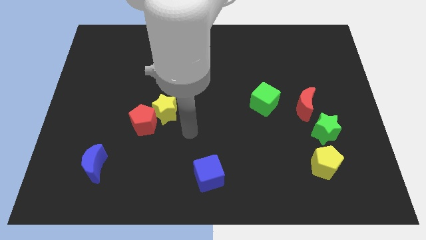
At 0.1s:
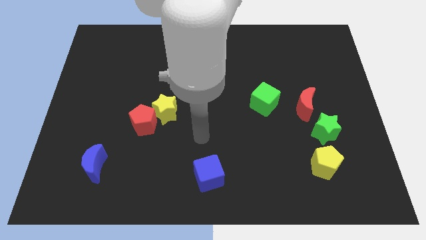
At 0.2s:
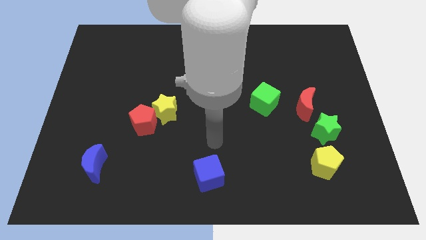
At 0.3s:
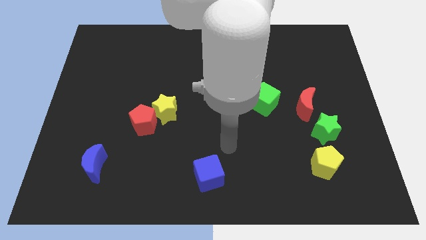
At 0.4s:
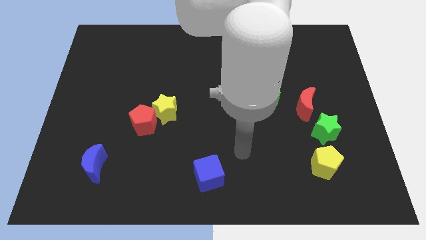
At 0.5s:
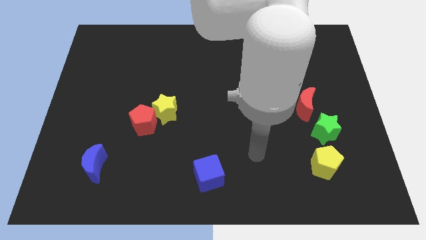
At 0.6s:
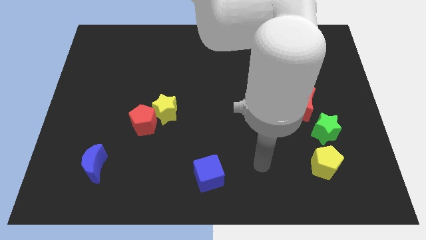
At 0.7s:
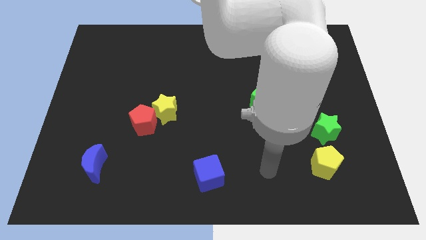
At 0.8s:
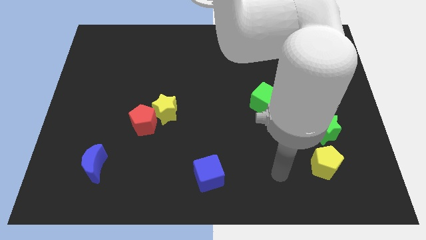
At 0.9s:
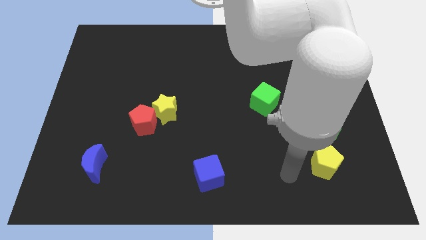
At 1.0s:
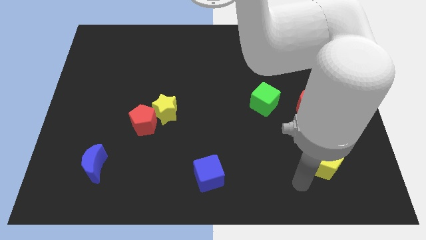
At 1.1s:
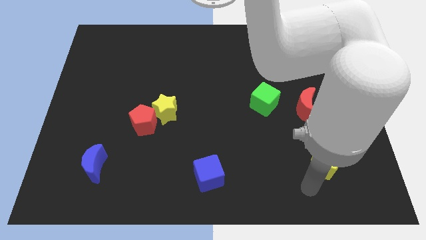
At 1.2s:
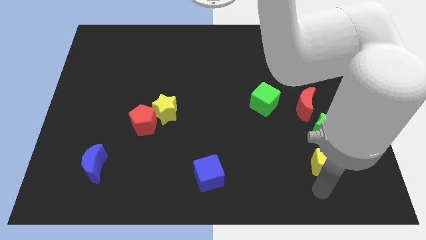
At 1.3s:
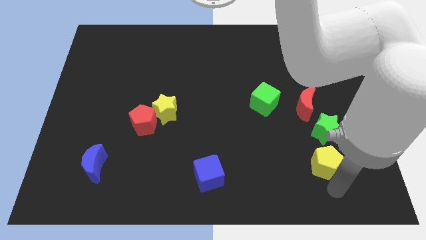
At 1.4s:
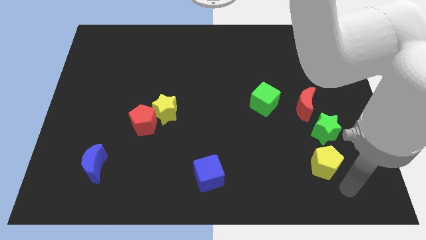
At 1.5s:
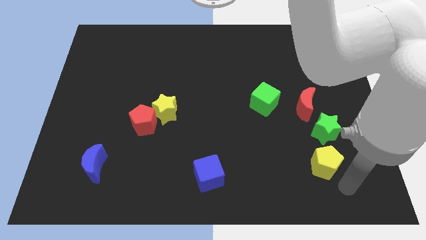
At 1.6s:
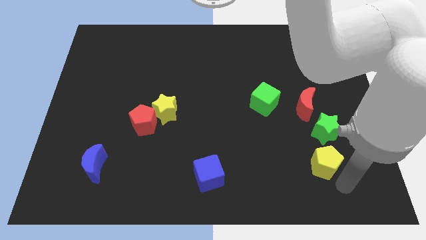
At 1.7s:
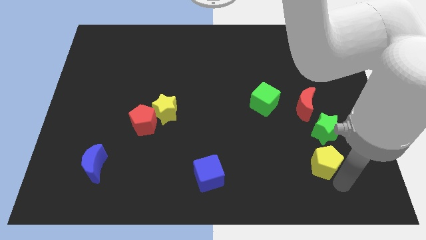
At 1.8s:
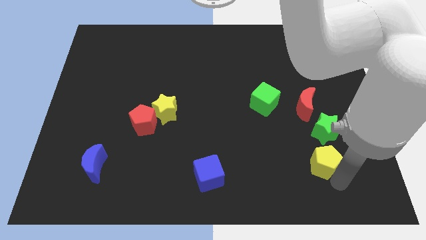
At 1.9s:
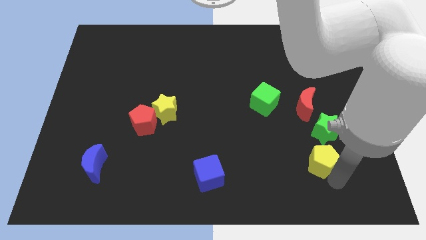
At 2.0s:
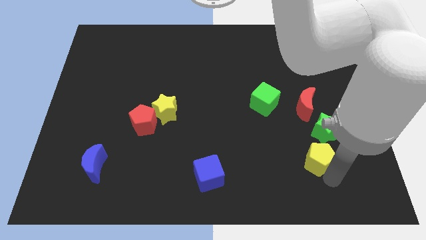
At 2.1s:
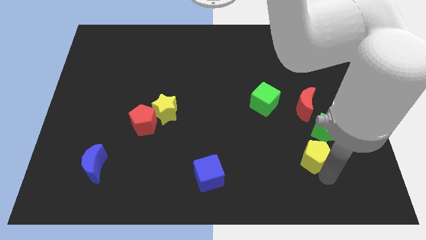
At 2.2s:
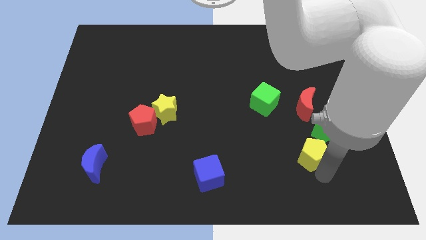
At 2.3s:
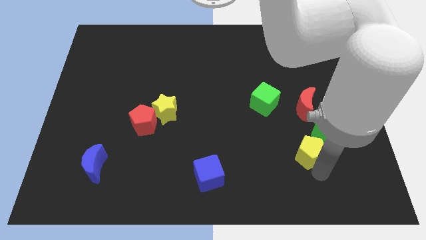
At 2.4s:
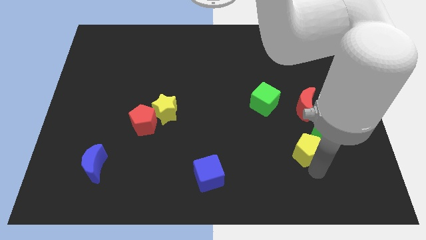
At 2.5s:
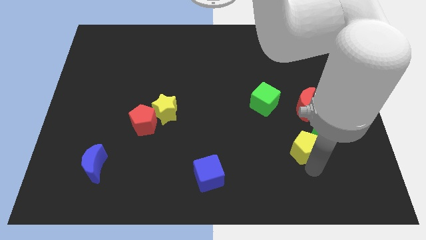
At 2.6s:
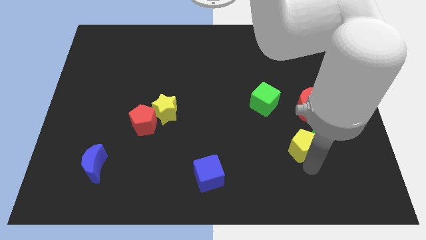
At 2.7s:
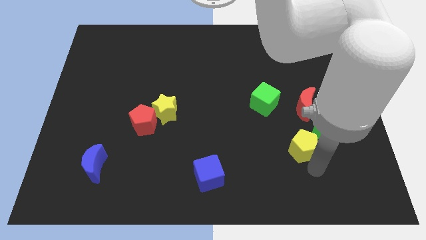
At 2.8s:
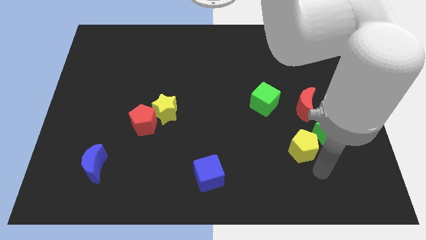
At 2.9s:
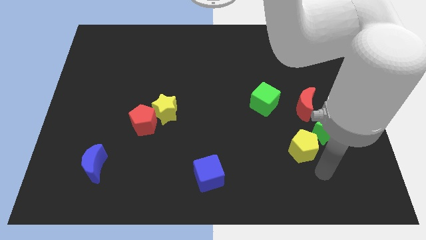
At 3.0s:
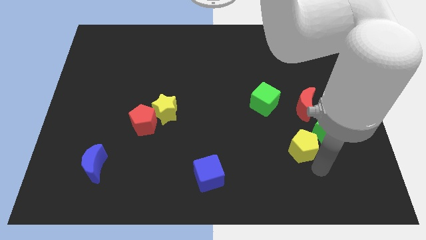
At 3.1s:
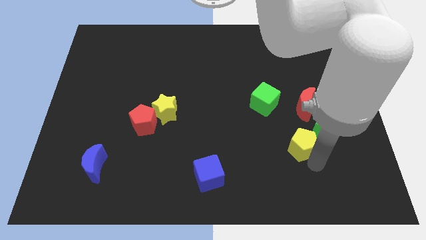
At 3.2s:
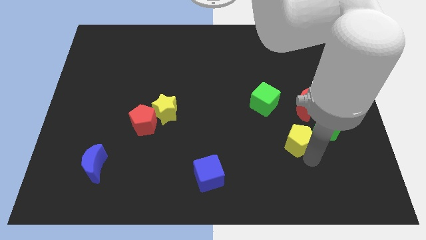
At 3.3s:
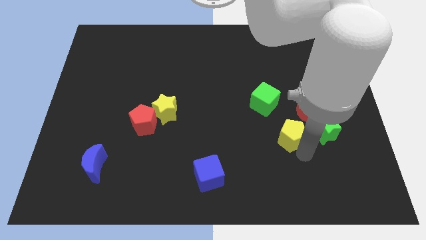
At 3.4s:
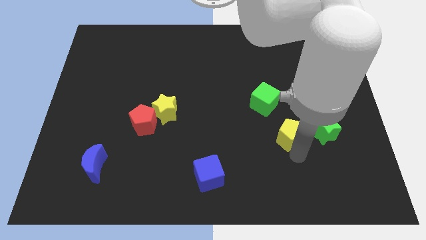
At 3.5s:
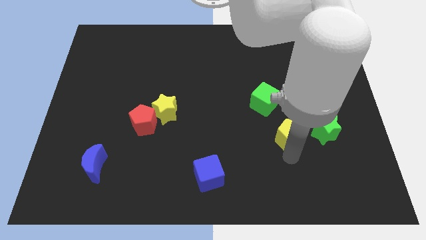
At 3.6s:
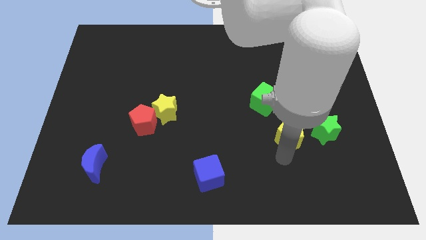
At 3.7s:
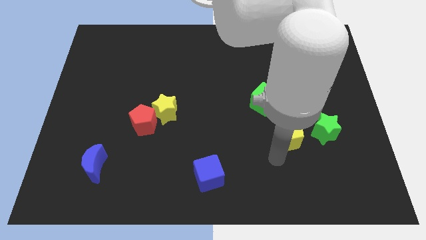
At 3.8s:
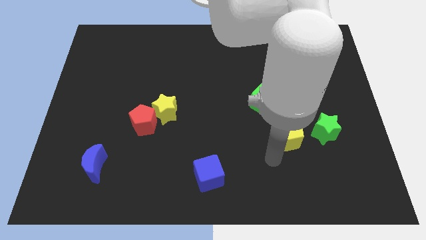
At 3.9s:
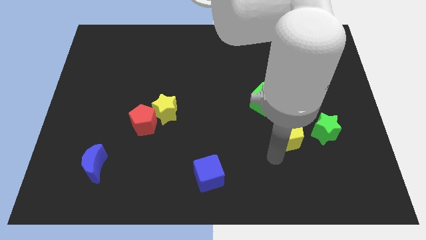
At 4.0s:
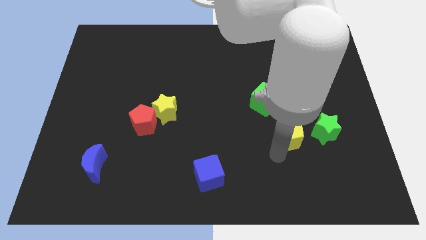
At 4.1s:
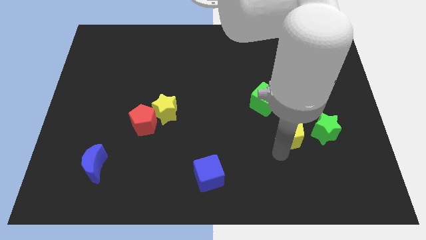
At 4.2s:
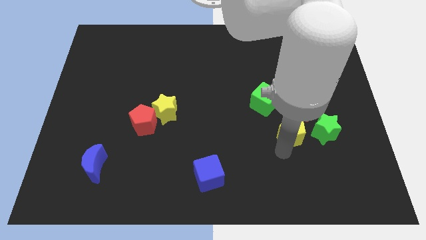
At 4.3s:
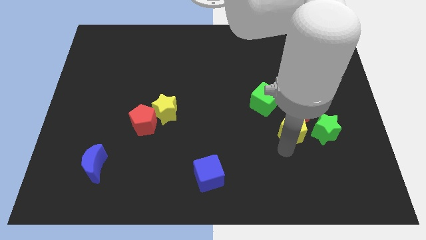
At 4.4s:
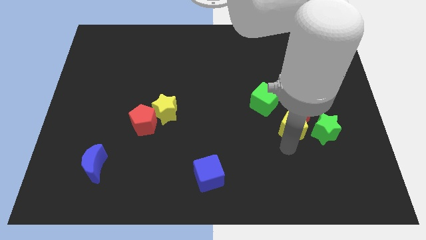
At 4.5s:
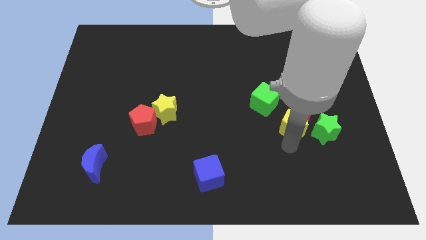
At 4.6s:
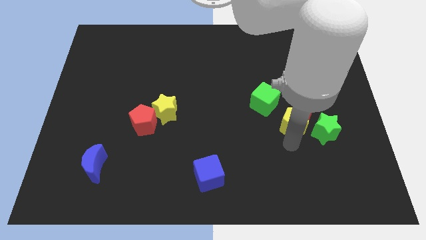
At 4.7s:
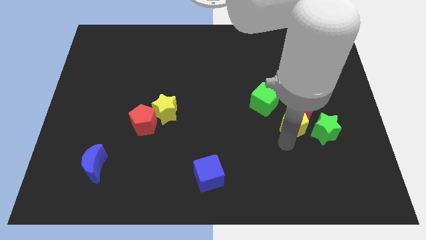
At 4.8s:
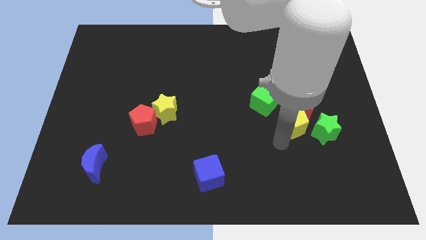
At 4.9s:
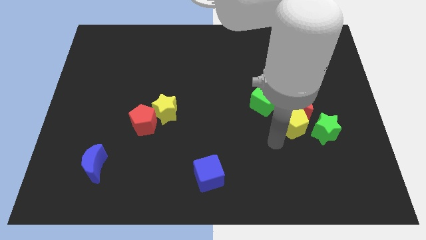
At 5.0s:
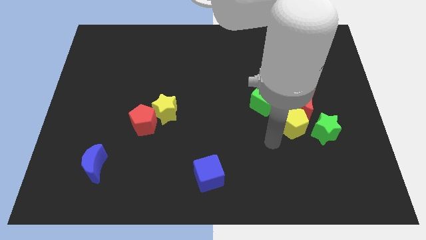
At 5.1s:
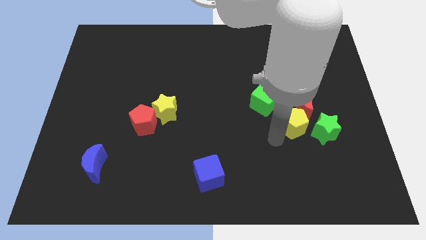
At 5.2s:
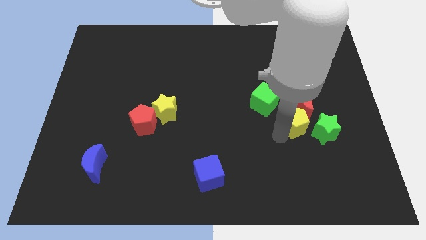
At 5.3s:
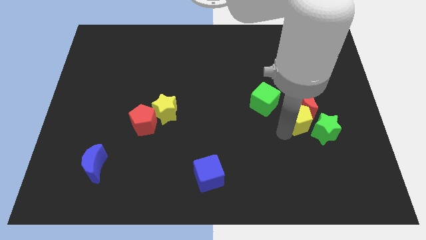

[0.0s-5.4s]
move the yellow pentagon towards the red moon

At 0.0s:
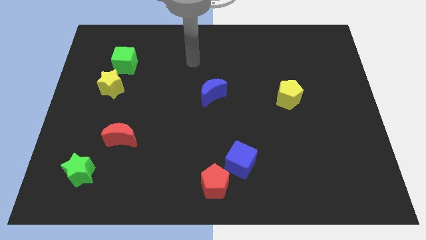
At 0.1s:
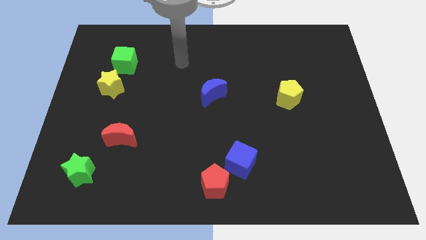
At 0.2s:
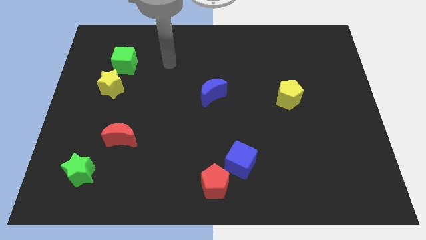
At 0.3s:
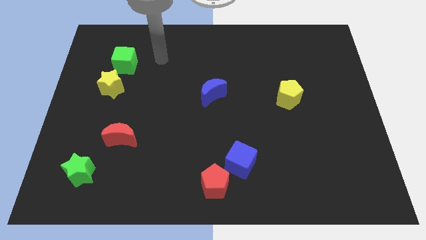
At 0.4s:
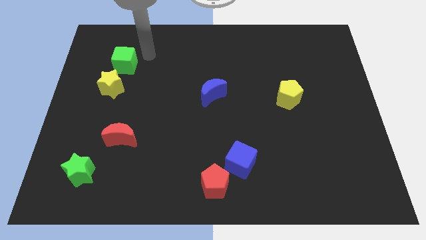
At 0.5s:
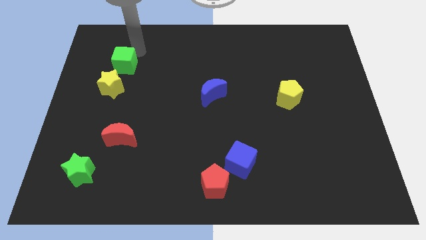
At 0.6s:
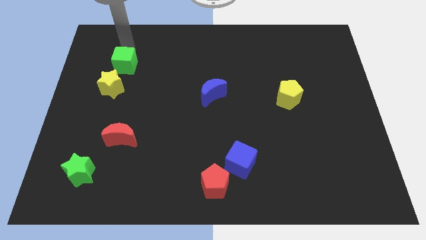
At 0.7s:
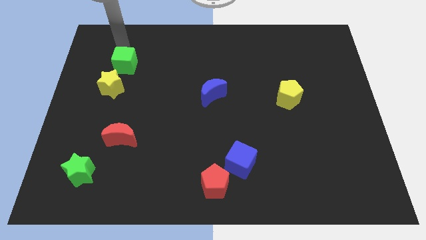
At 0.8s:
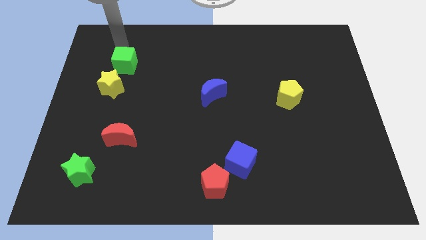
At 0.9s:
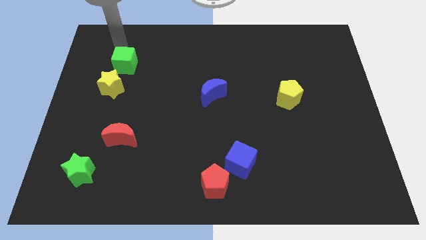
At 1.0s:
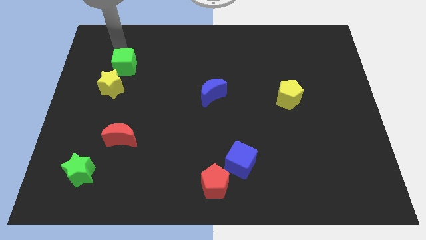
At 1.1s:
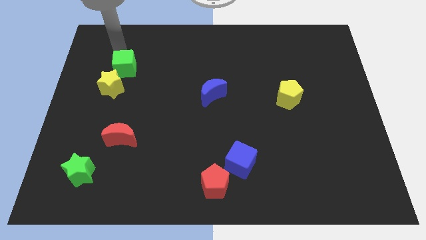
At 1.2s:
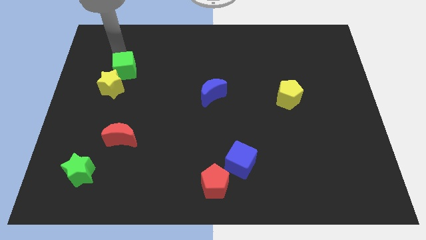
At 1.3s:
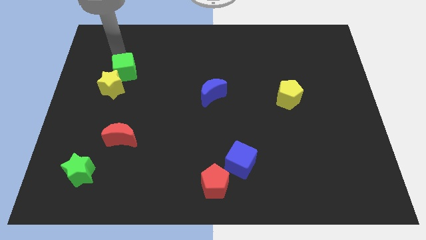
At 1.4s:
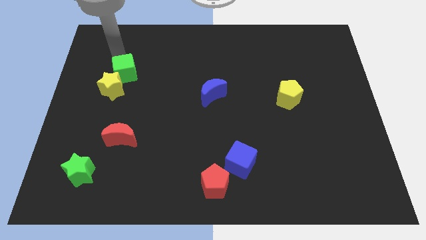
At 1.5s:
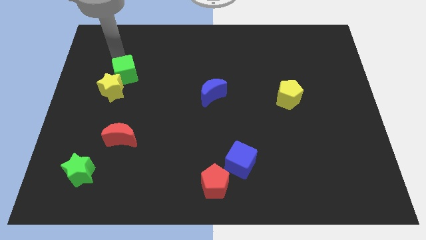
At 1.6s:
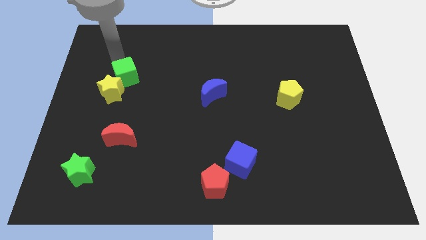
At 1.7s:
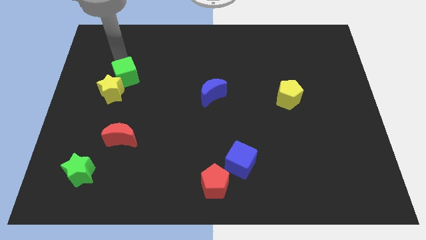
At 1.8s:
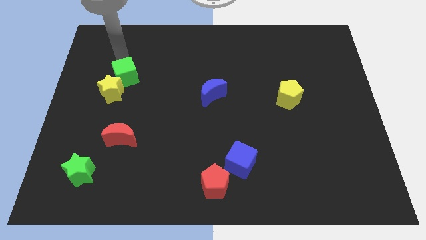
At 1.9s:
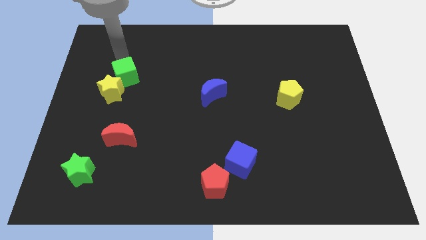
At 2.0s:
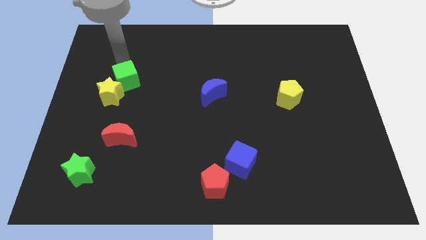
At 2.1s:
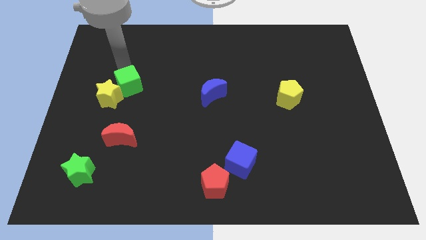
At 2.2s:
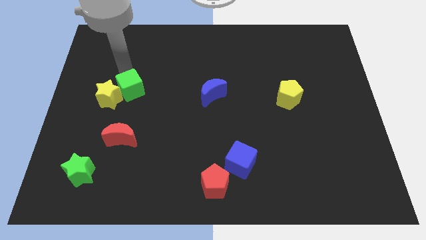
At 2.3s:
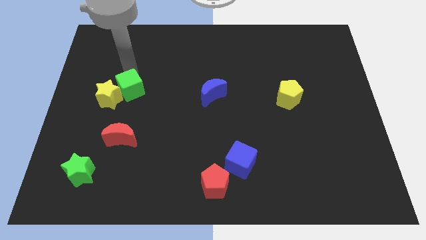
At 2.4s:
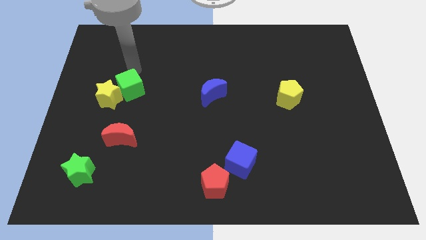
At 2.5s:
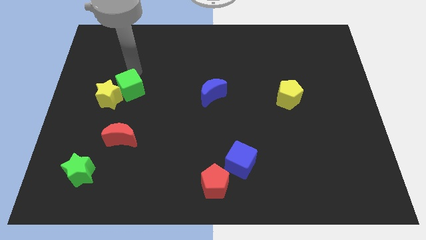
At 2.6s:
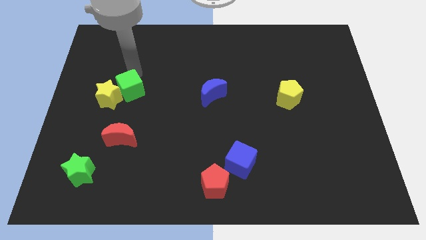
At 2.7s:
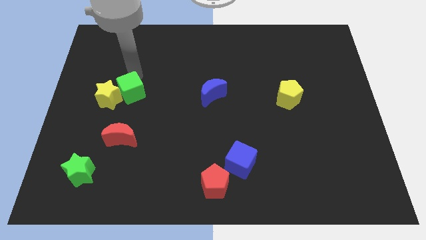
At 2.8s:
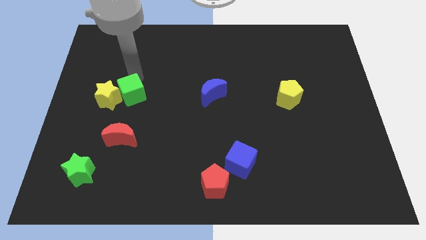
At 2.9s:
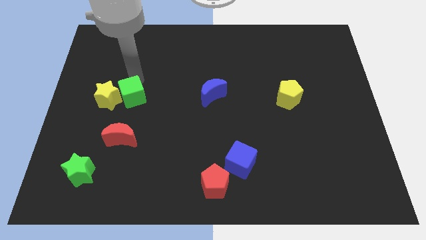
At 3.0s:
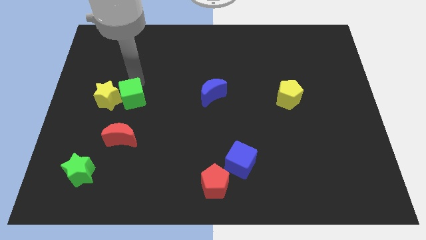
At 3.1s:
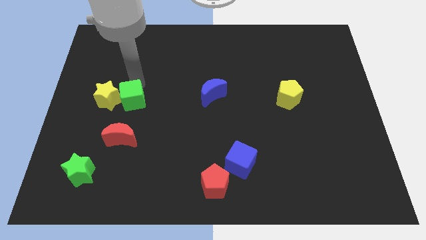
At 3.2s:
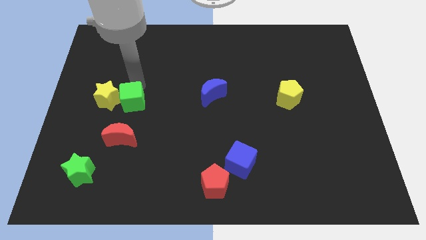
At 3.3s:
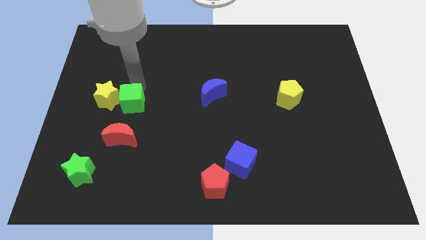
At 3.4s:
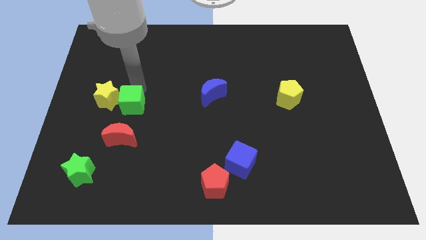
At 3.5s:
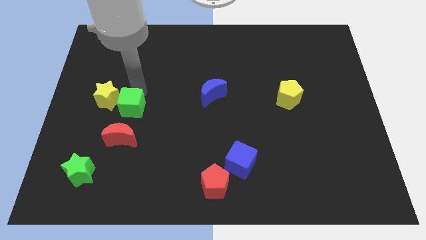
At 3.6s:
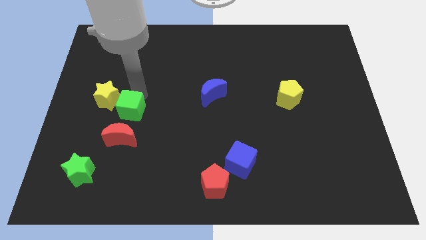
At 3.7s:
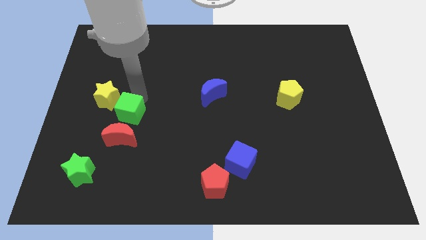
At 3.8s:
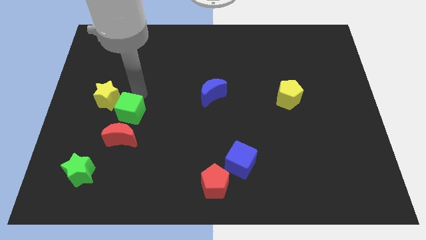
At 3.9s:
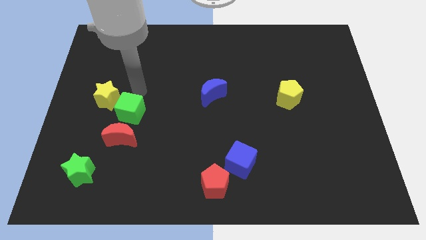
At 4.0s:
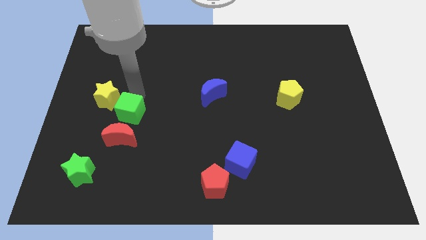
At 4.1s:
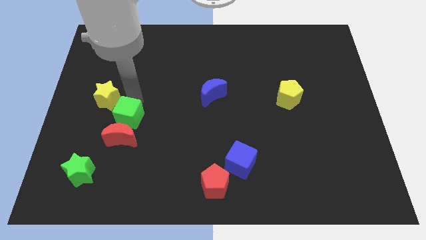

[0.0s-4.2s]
move the green cube towards the red moon
